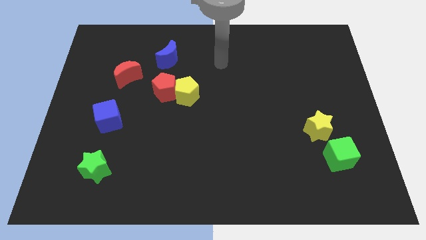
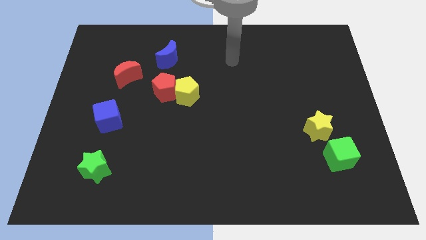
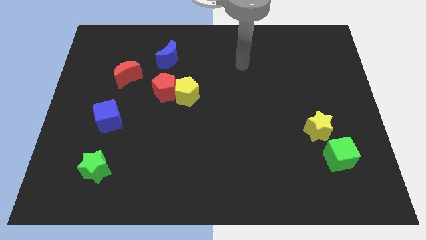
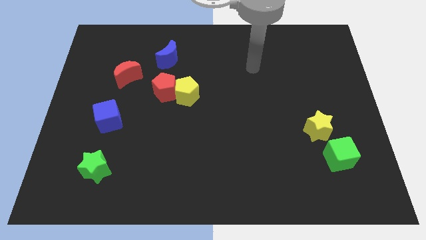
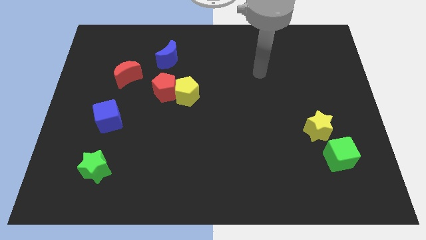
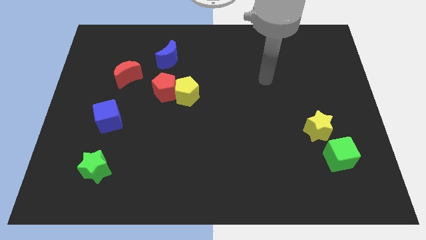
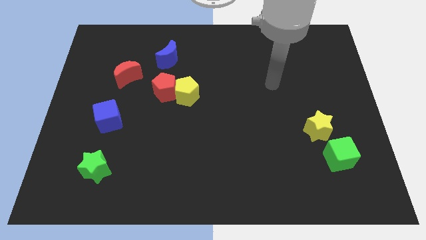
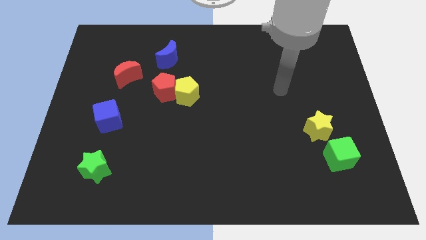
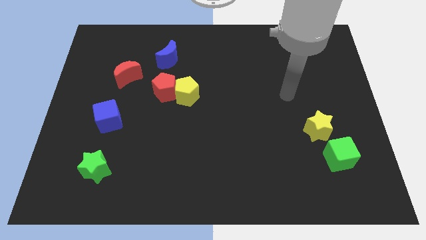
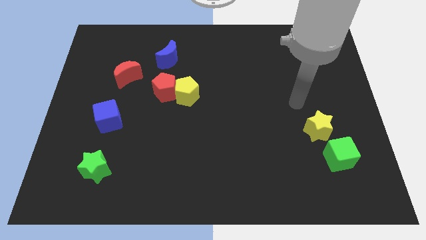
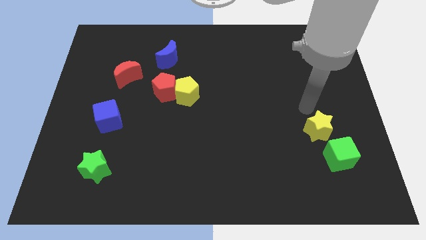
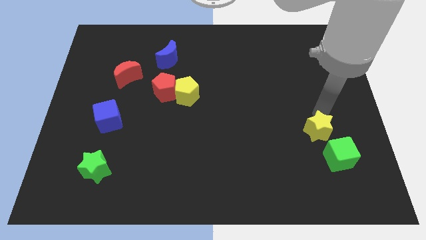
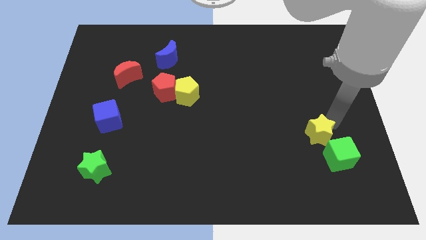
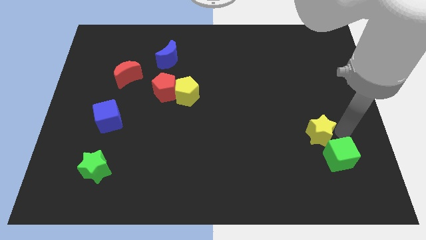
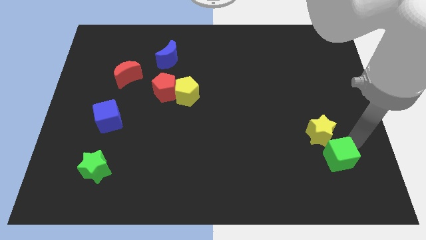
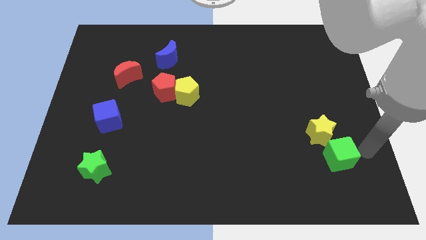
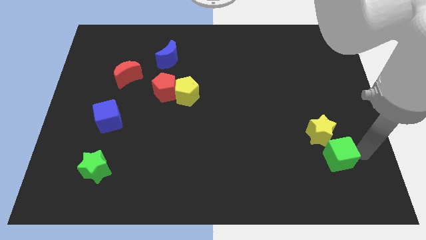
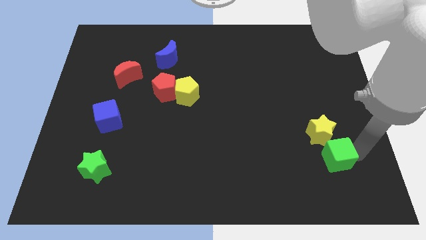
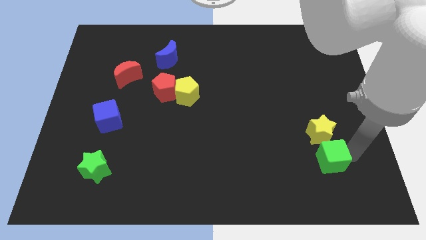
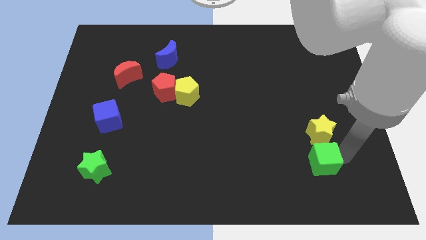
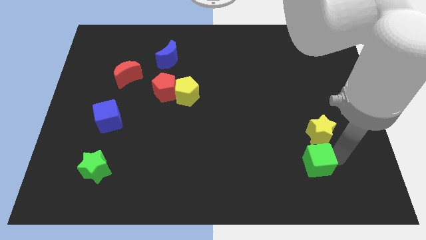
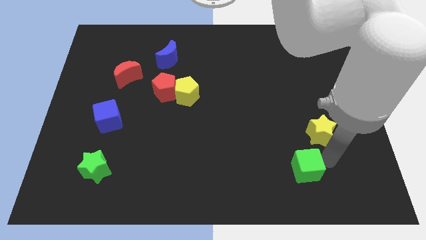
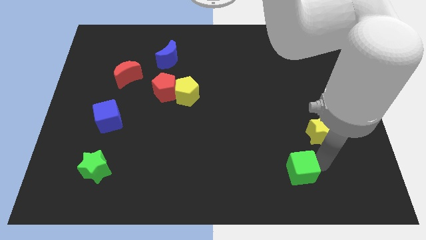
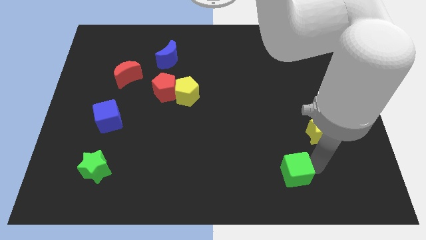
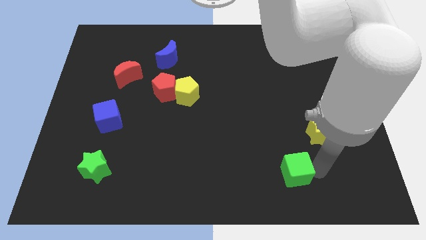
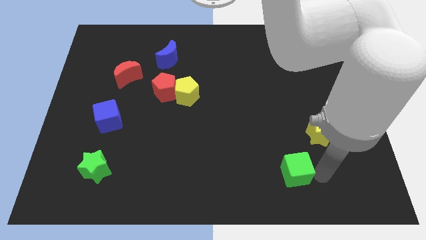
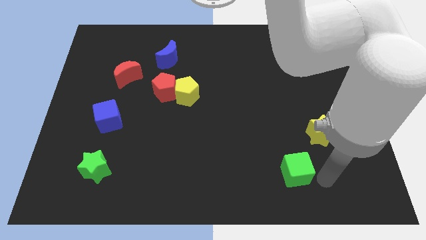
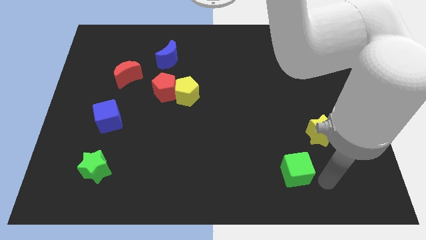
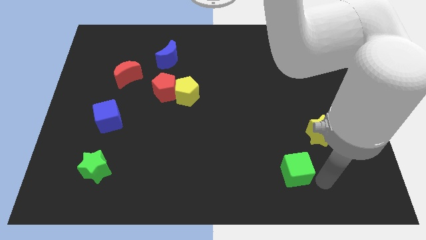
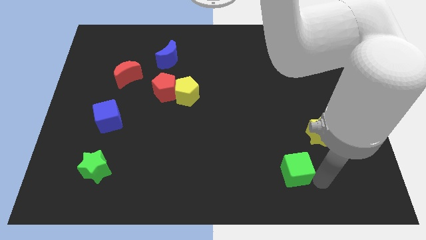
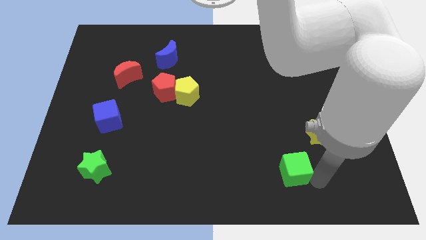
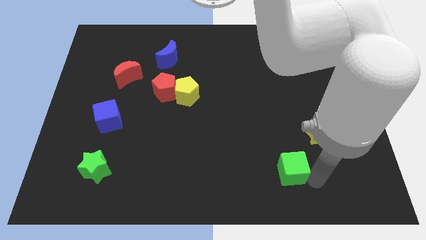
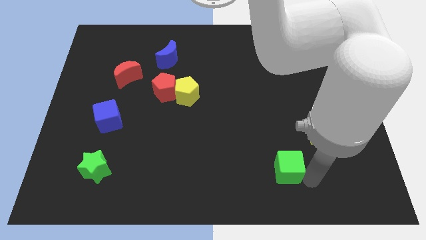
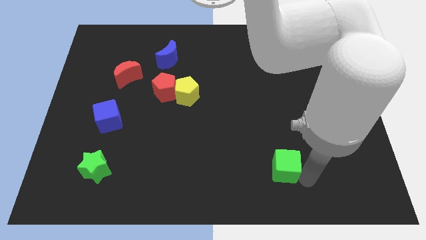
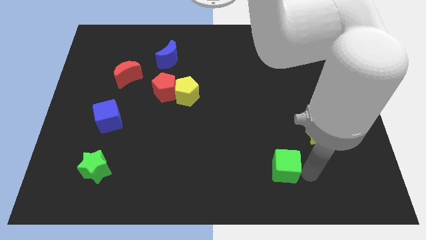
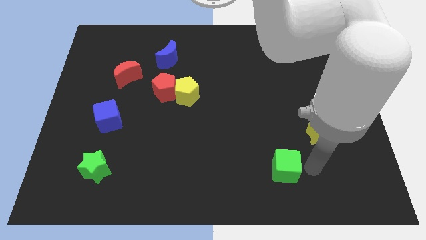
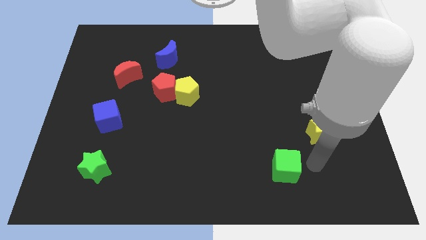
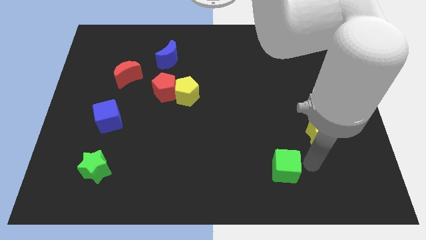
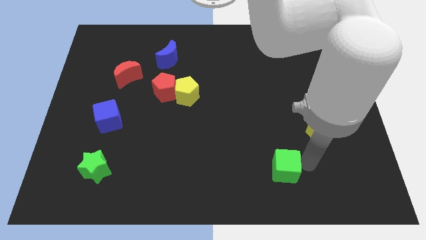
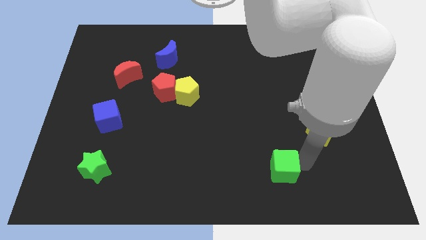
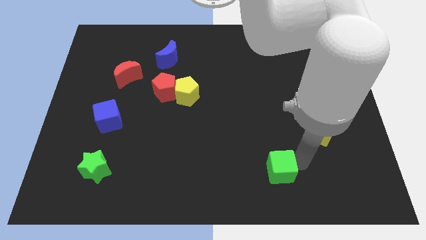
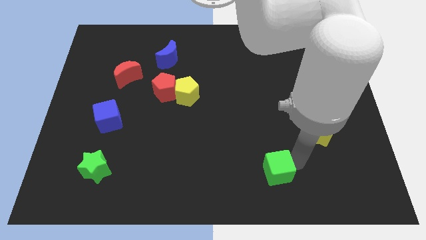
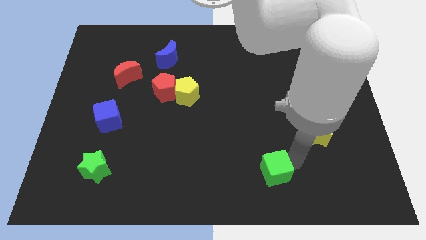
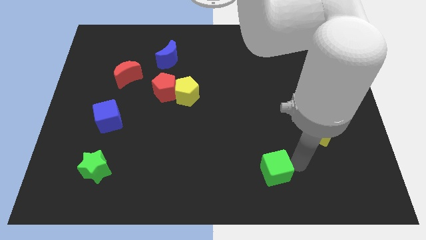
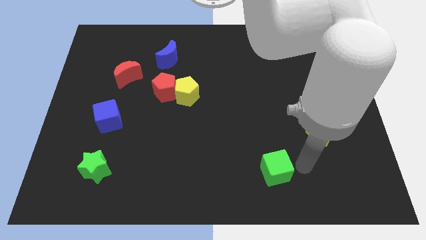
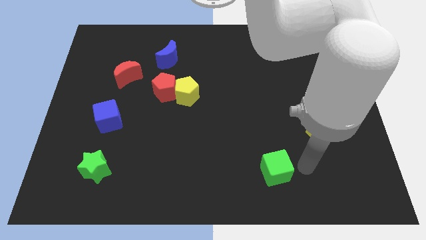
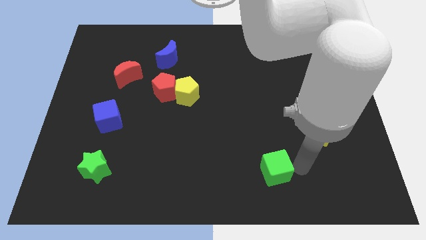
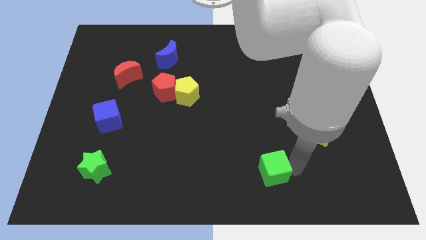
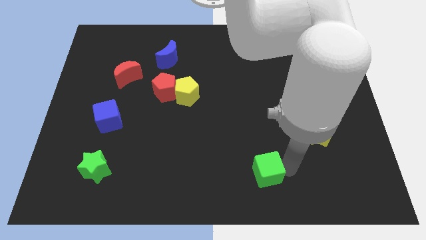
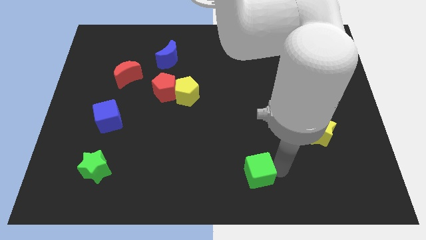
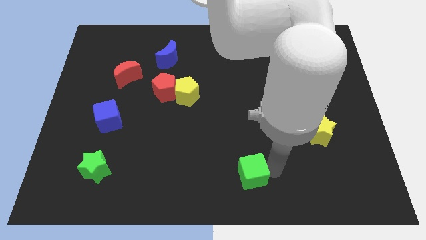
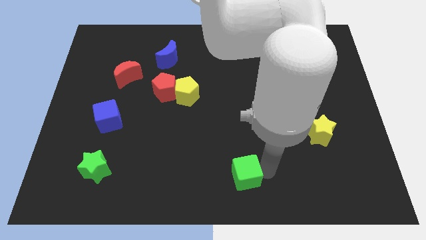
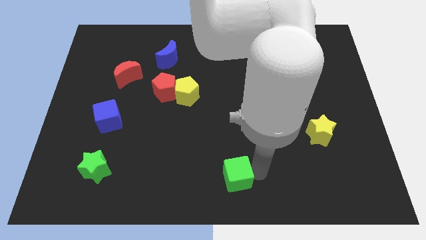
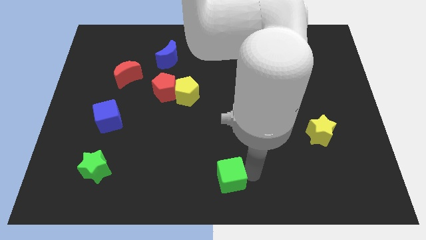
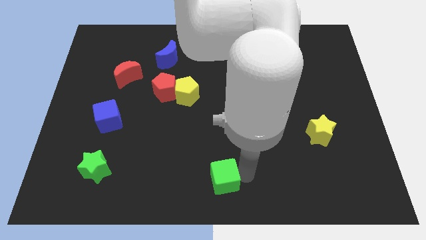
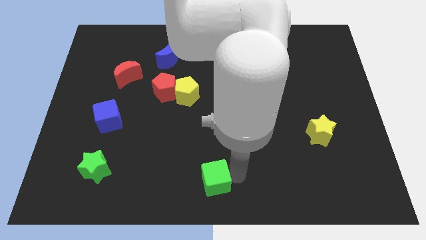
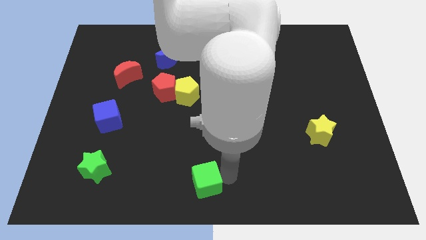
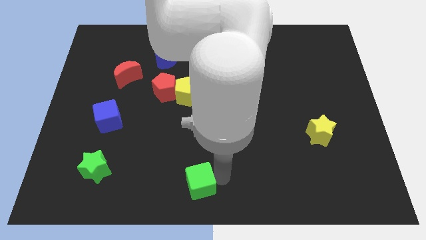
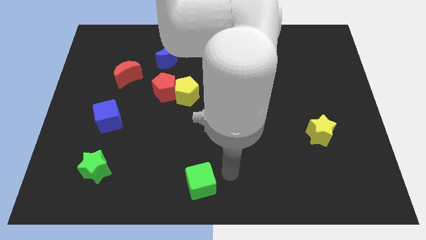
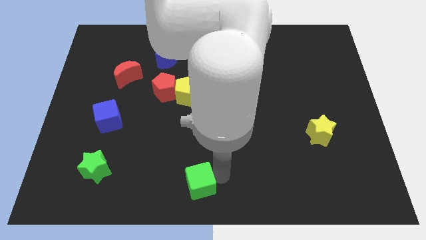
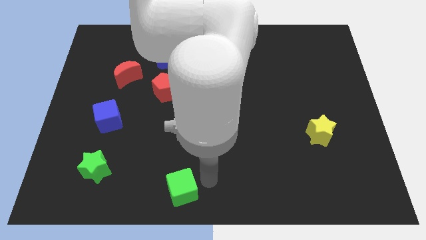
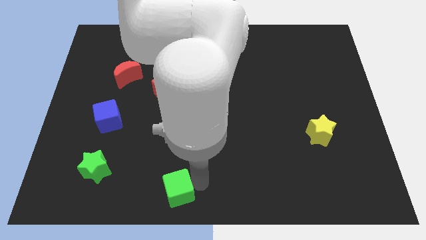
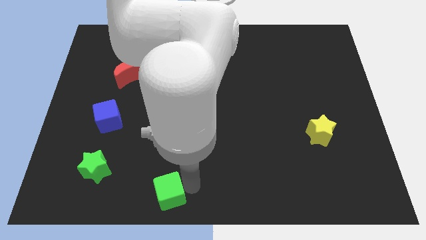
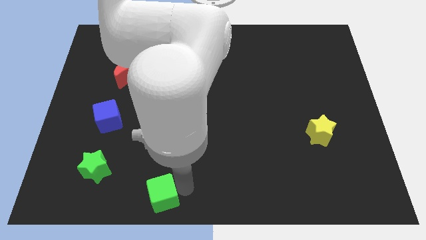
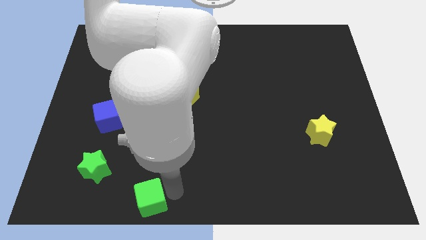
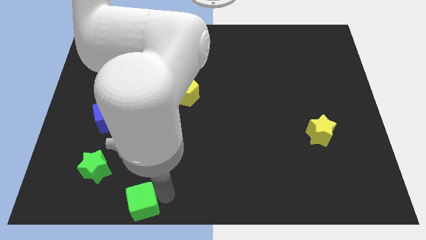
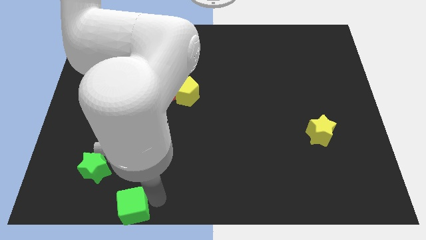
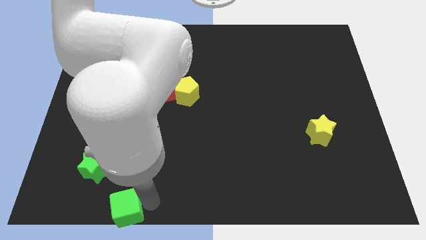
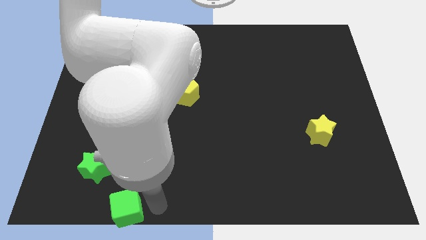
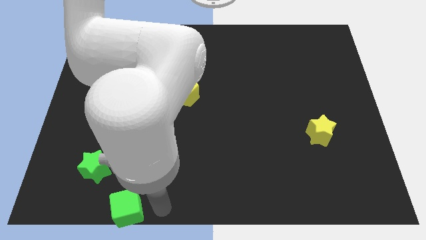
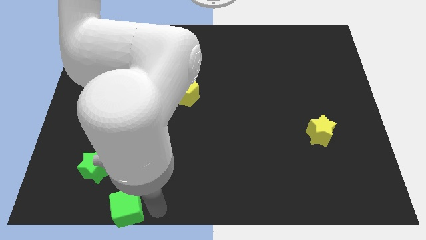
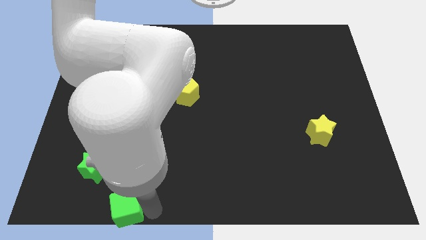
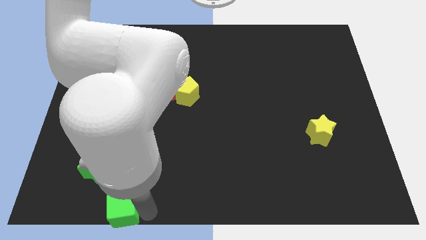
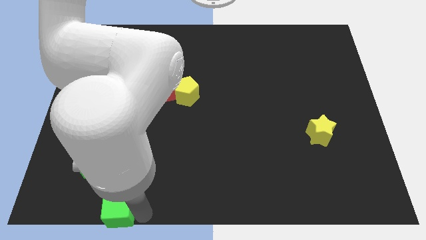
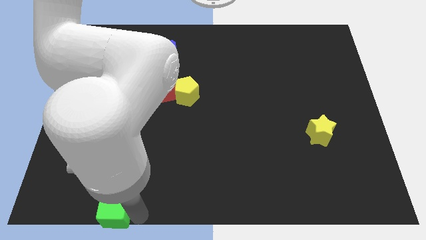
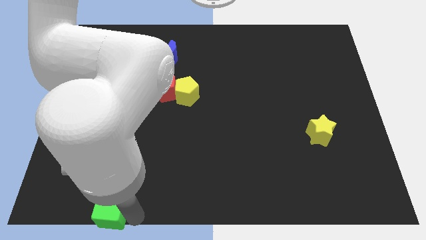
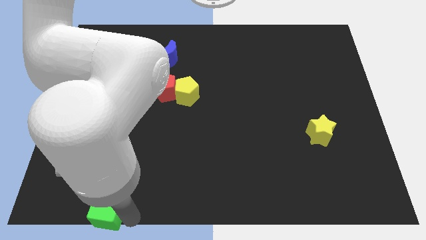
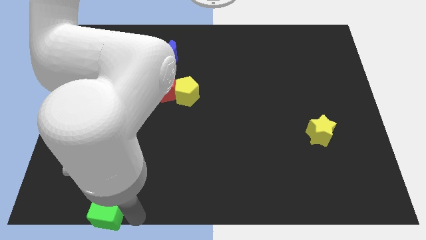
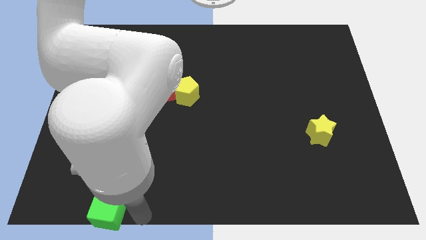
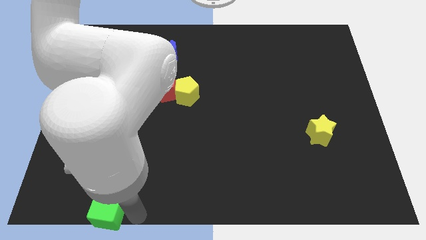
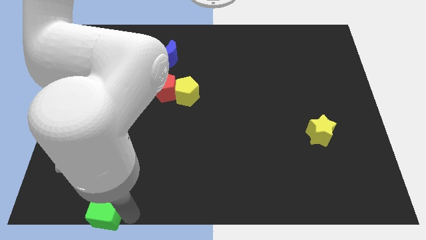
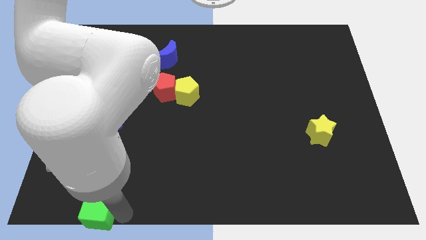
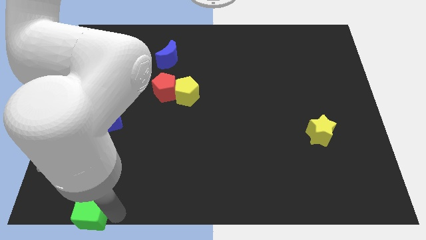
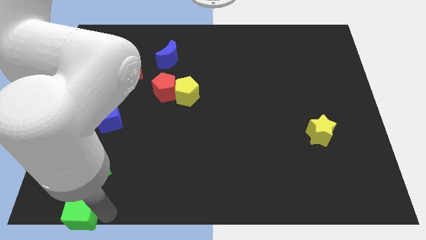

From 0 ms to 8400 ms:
slide the green cube to the bottom left of the board
